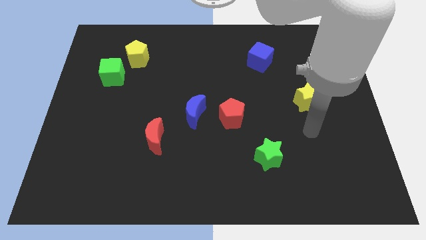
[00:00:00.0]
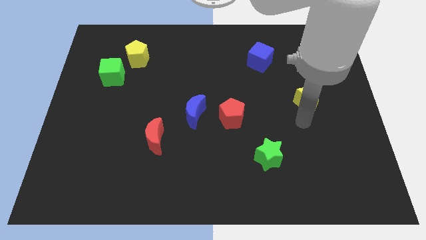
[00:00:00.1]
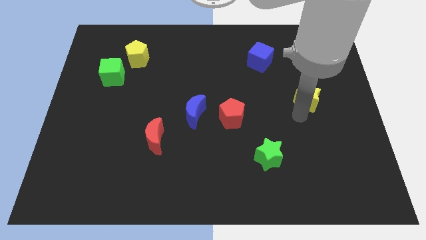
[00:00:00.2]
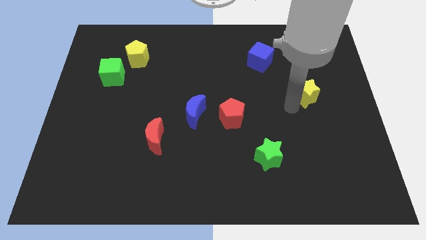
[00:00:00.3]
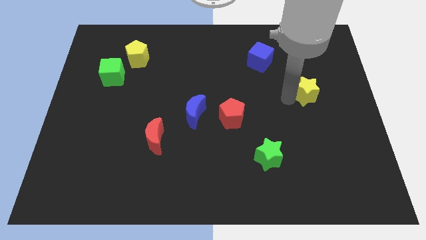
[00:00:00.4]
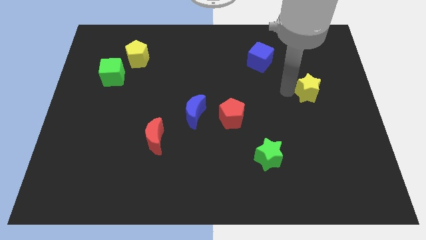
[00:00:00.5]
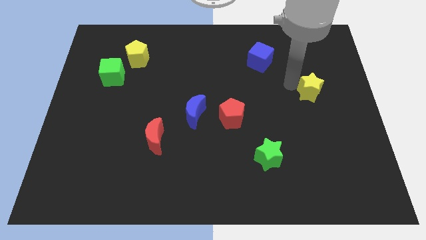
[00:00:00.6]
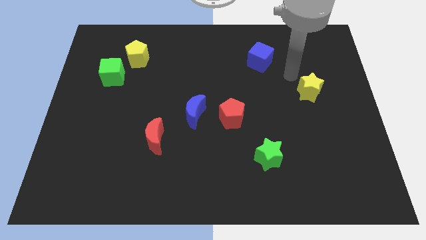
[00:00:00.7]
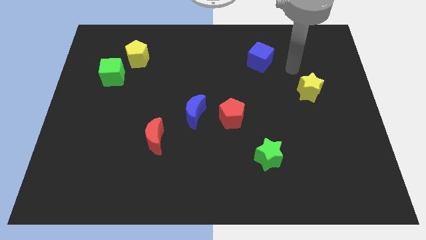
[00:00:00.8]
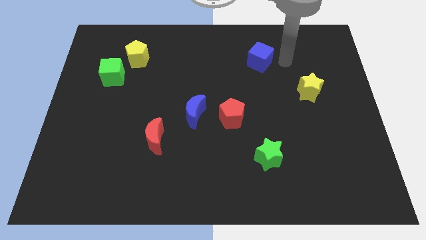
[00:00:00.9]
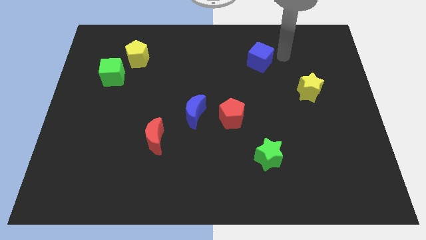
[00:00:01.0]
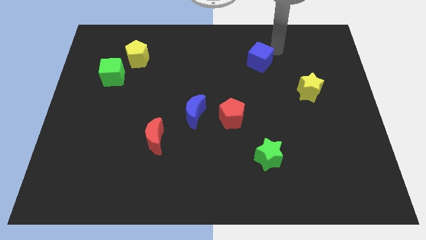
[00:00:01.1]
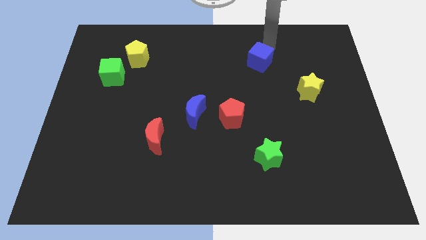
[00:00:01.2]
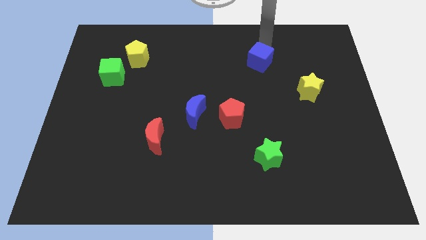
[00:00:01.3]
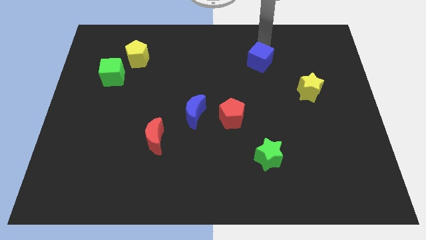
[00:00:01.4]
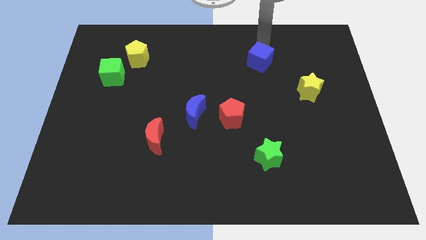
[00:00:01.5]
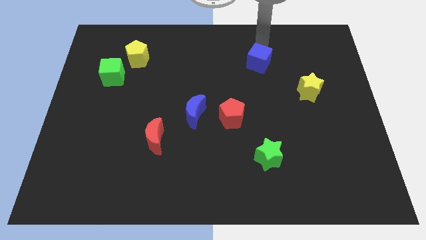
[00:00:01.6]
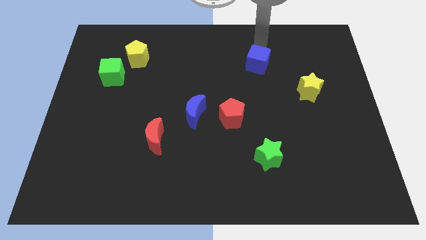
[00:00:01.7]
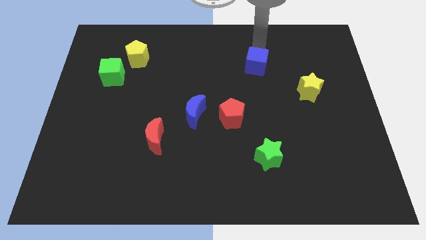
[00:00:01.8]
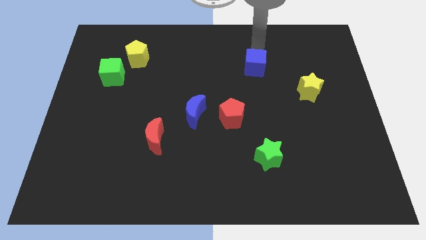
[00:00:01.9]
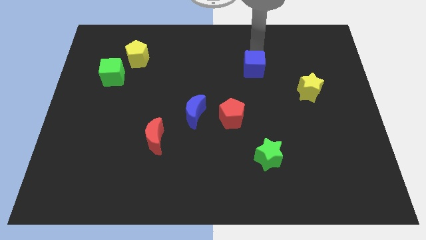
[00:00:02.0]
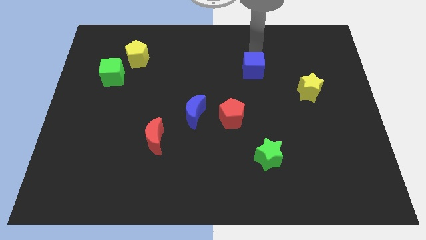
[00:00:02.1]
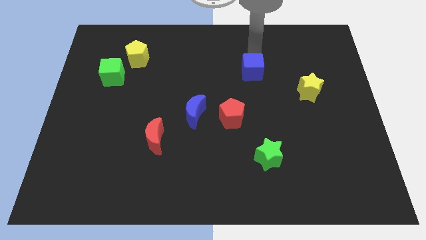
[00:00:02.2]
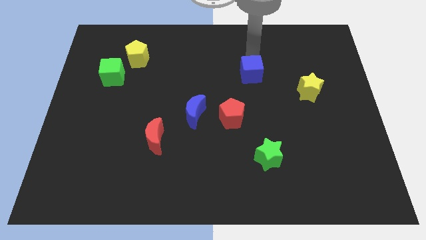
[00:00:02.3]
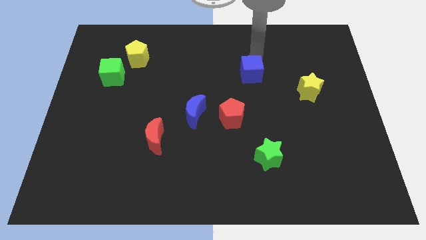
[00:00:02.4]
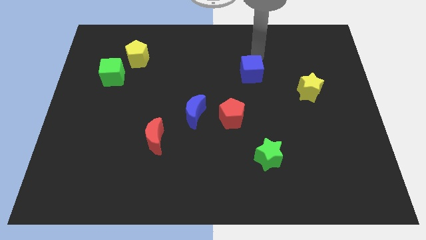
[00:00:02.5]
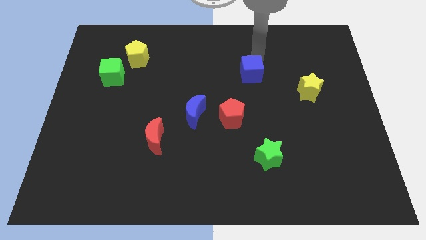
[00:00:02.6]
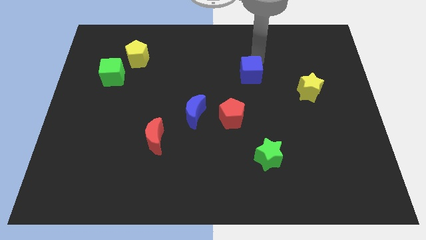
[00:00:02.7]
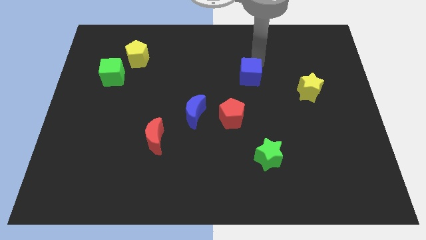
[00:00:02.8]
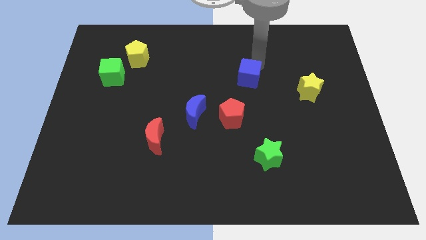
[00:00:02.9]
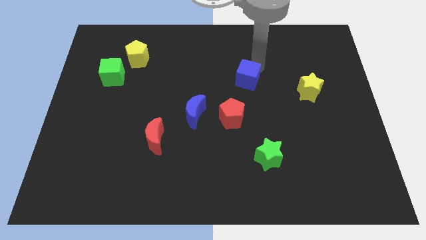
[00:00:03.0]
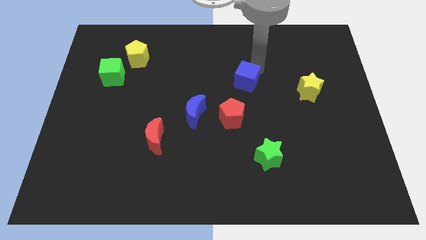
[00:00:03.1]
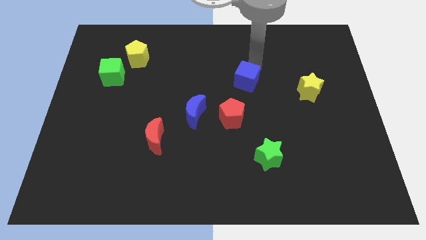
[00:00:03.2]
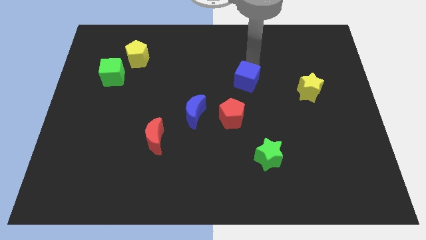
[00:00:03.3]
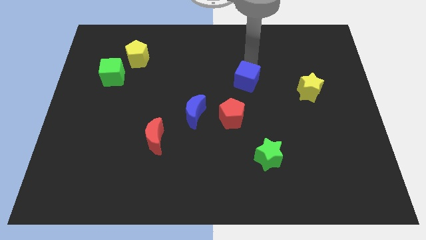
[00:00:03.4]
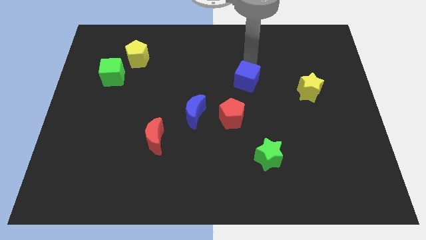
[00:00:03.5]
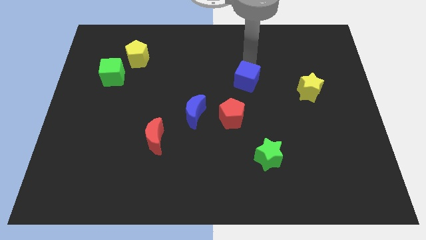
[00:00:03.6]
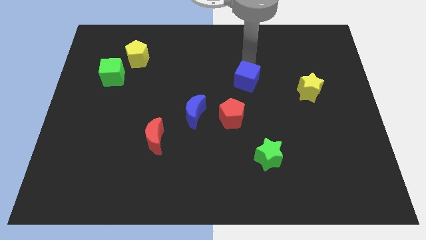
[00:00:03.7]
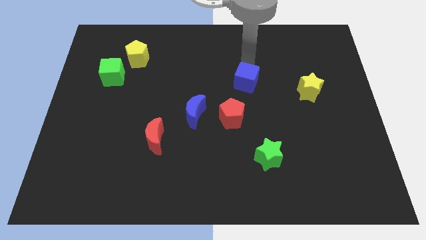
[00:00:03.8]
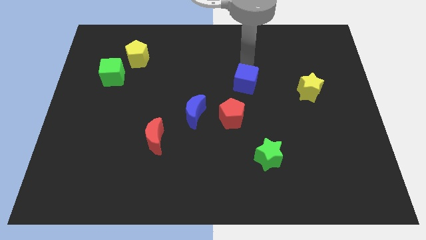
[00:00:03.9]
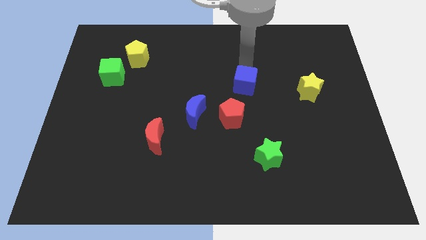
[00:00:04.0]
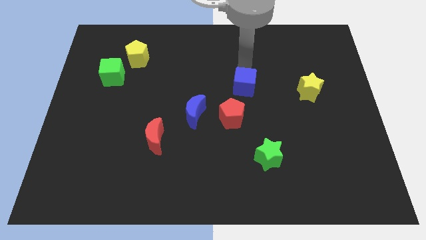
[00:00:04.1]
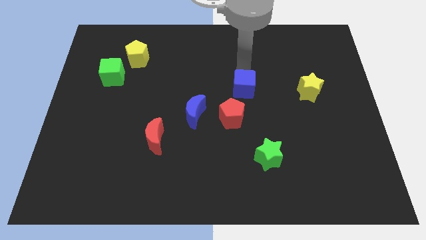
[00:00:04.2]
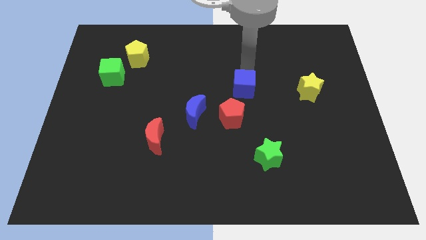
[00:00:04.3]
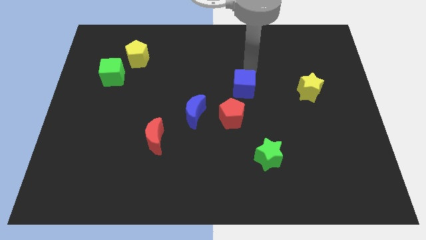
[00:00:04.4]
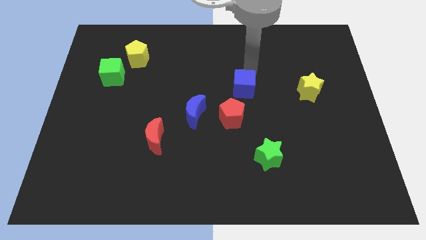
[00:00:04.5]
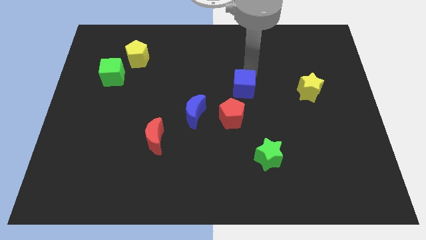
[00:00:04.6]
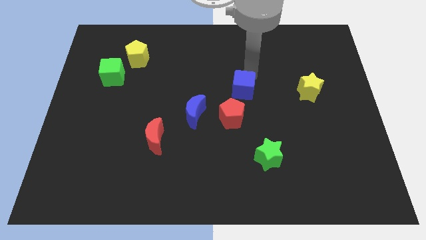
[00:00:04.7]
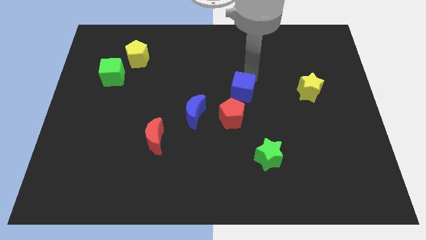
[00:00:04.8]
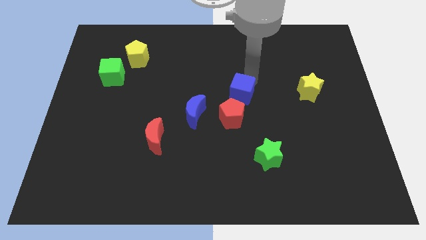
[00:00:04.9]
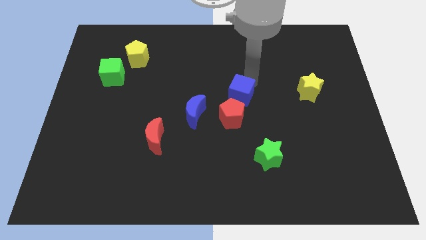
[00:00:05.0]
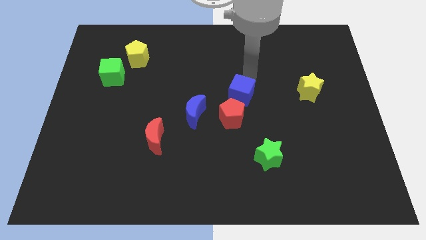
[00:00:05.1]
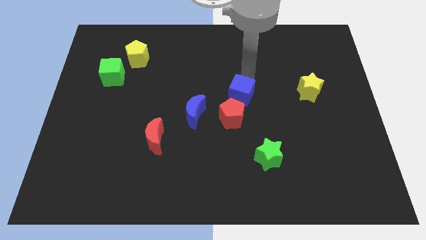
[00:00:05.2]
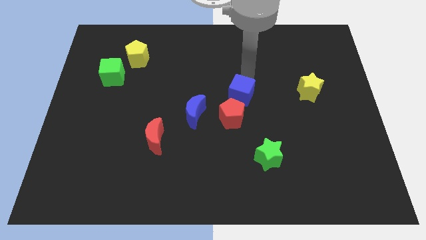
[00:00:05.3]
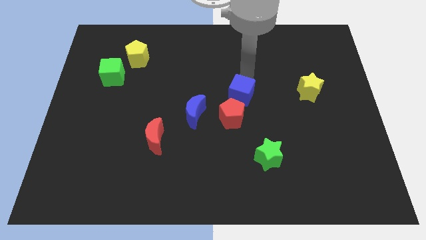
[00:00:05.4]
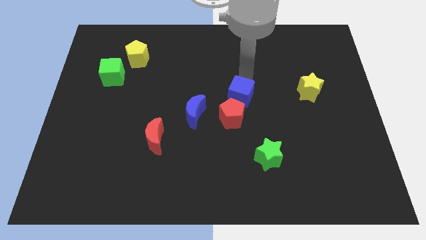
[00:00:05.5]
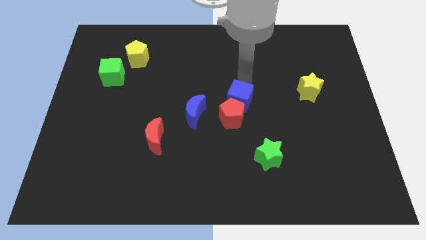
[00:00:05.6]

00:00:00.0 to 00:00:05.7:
put the blue cube next to the red pentagon

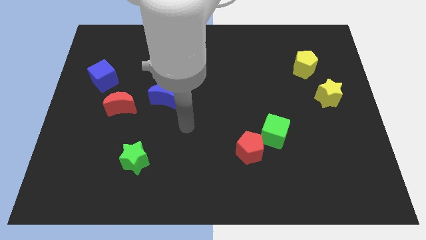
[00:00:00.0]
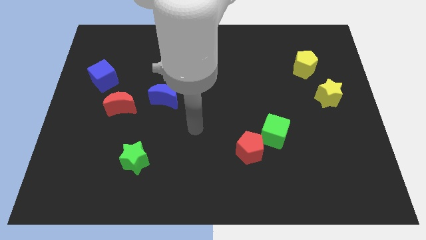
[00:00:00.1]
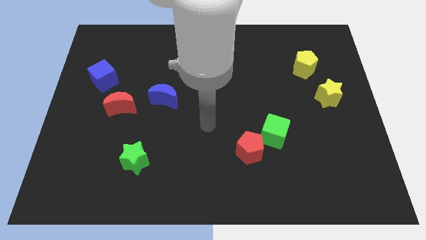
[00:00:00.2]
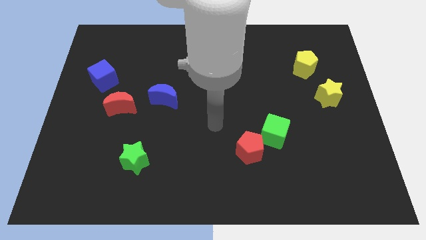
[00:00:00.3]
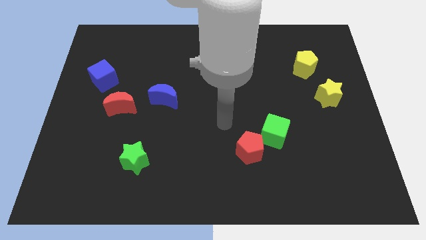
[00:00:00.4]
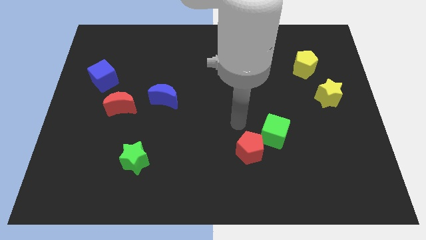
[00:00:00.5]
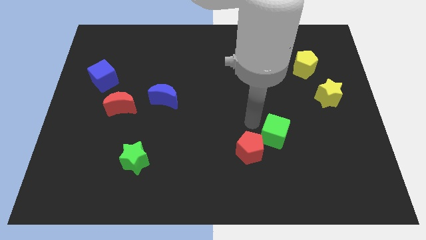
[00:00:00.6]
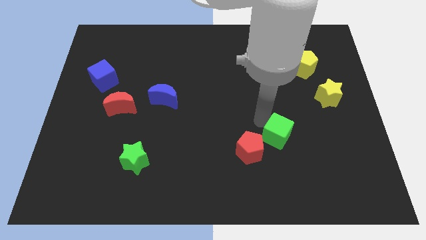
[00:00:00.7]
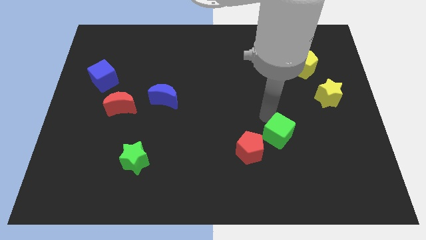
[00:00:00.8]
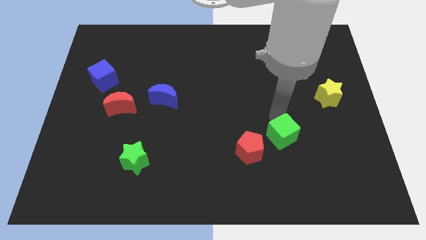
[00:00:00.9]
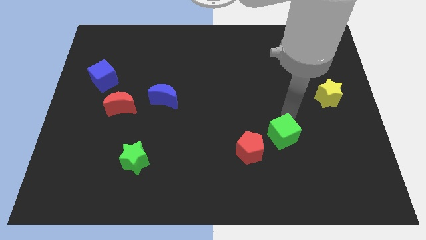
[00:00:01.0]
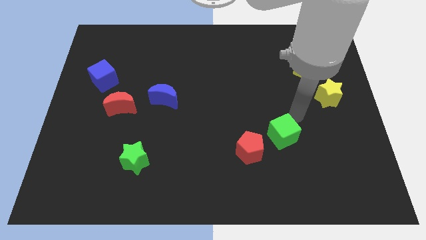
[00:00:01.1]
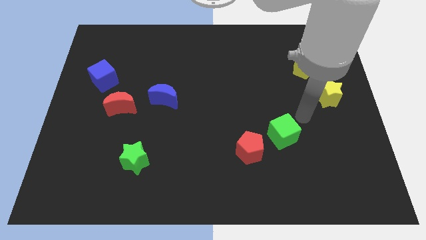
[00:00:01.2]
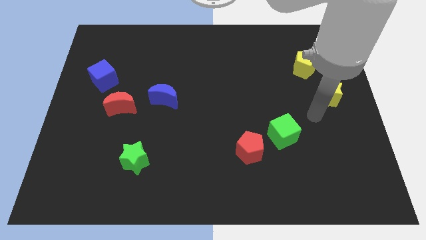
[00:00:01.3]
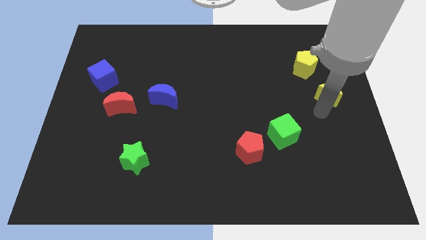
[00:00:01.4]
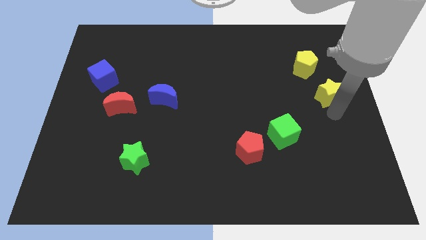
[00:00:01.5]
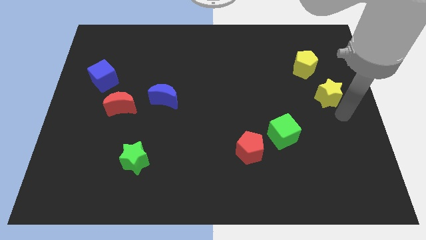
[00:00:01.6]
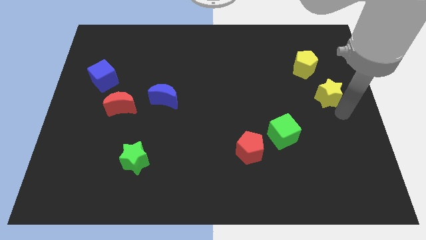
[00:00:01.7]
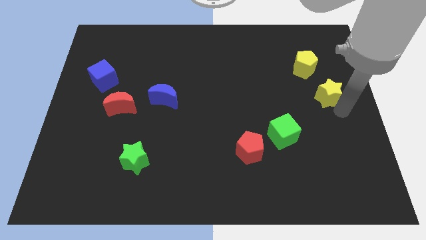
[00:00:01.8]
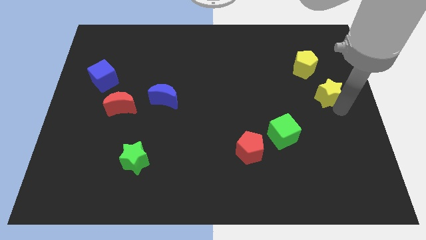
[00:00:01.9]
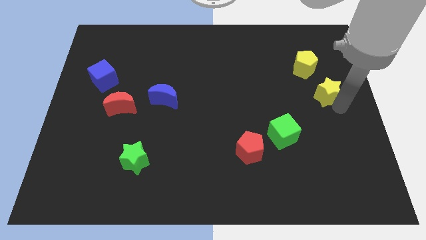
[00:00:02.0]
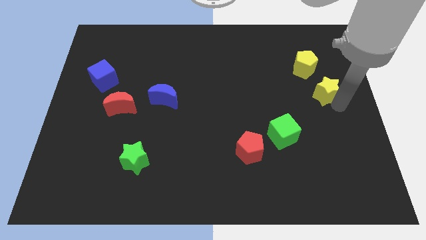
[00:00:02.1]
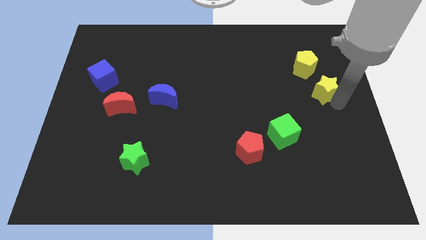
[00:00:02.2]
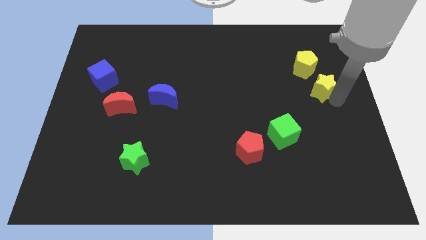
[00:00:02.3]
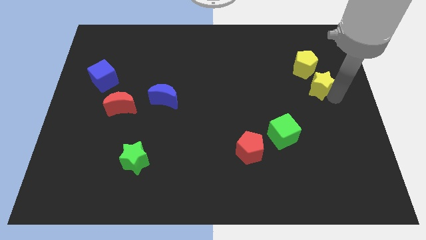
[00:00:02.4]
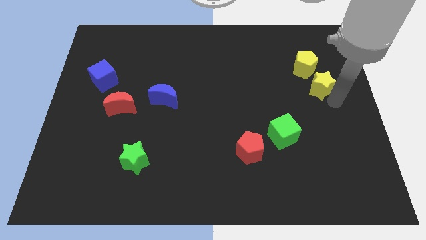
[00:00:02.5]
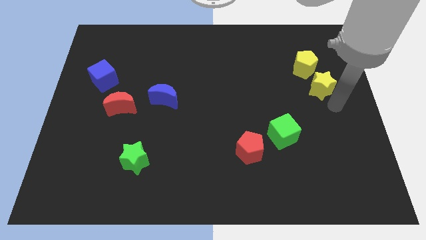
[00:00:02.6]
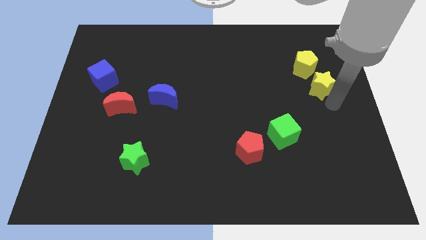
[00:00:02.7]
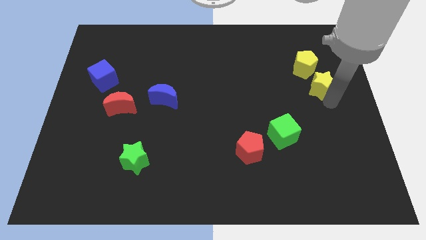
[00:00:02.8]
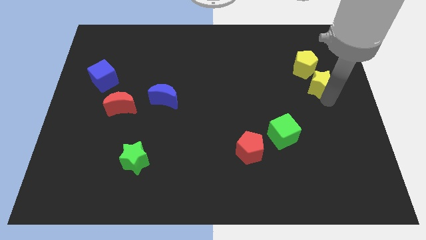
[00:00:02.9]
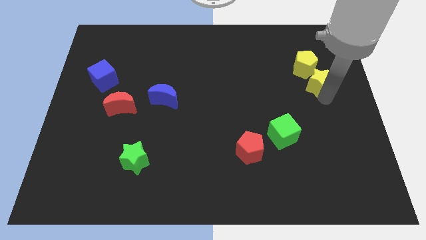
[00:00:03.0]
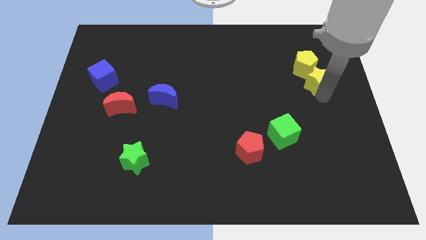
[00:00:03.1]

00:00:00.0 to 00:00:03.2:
move the yellow star to the yellow pentagon
